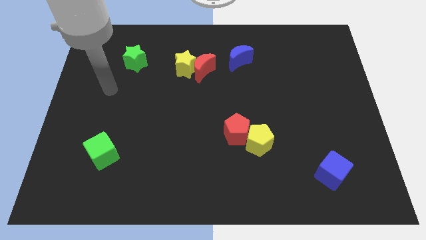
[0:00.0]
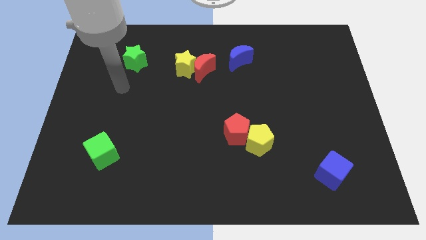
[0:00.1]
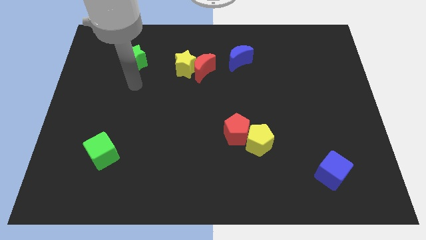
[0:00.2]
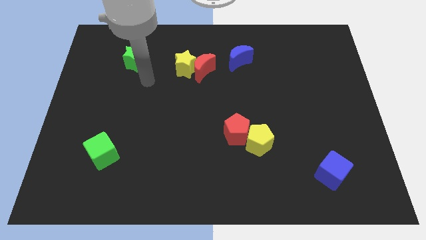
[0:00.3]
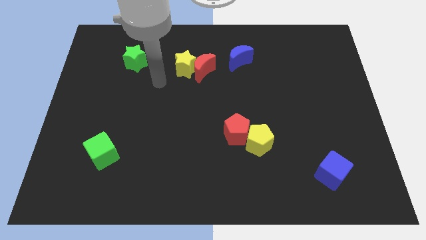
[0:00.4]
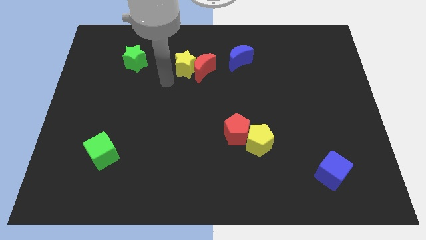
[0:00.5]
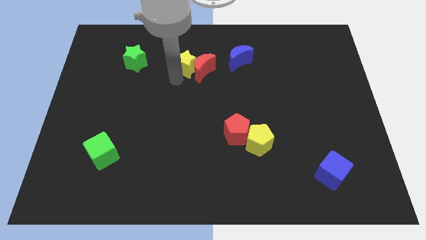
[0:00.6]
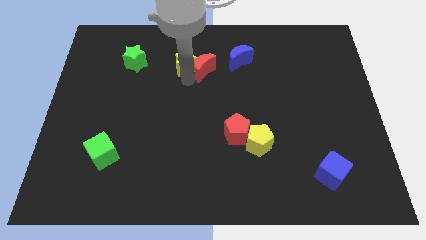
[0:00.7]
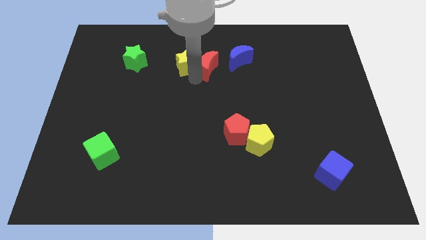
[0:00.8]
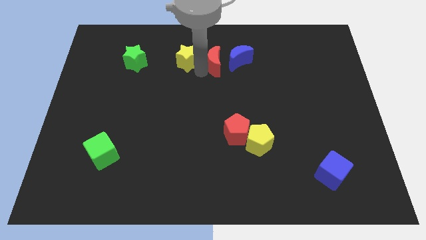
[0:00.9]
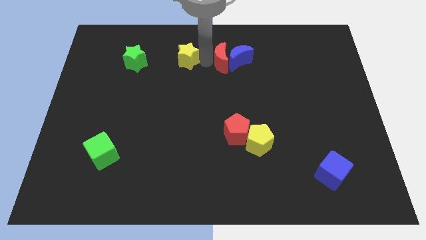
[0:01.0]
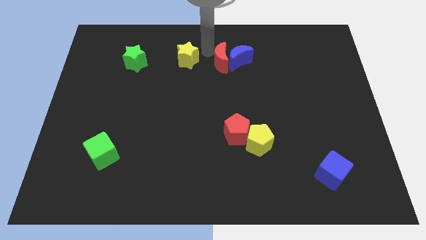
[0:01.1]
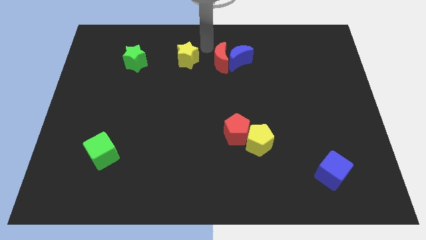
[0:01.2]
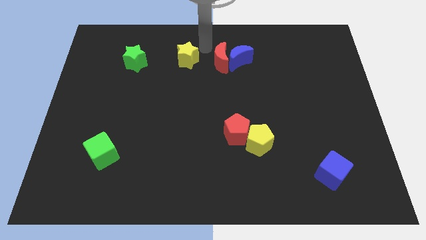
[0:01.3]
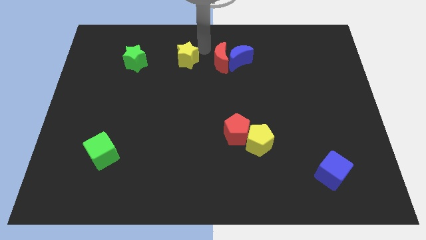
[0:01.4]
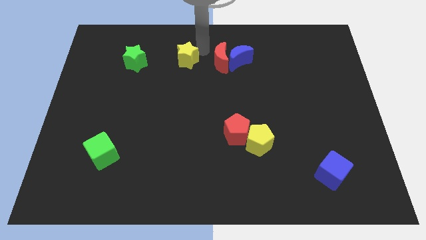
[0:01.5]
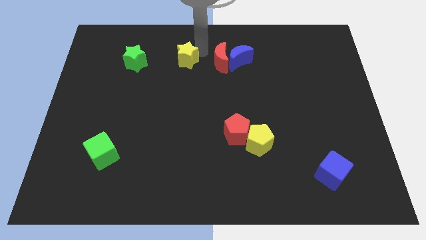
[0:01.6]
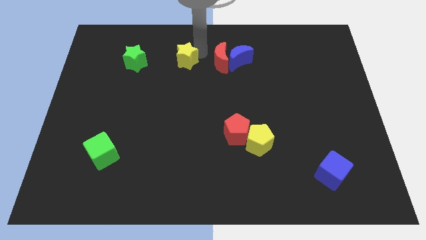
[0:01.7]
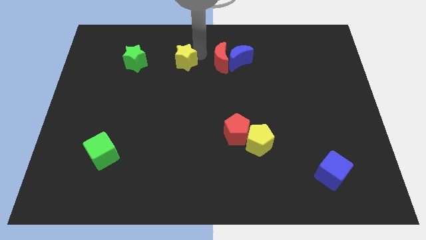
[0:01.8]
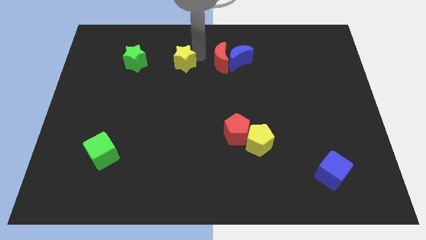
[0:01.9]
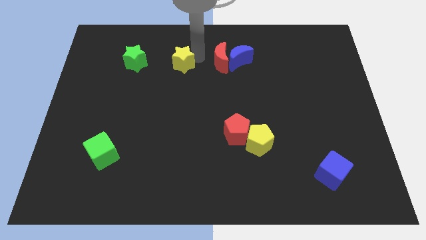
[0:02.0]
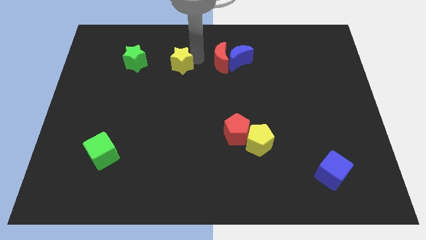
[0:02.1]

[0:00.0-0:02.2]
pull the yellow star apart from the red moon

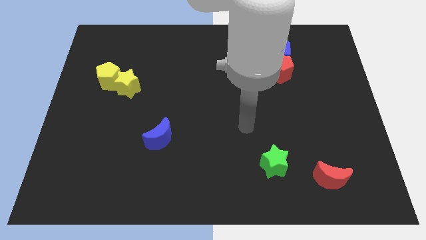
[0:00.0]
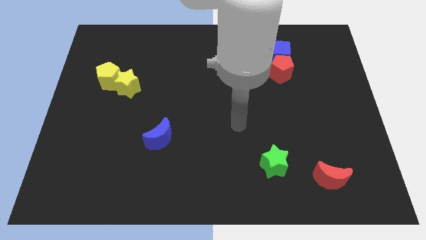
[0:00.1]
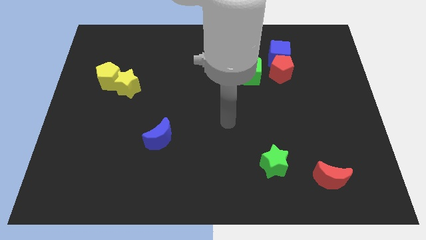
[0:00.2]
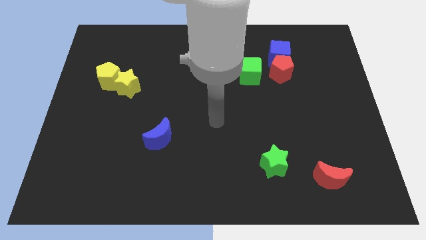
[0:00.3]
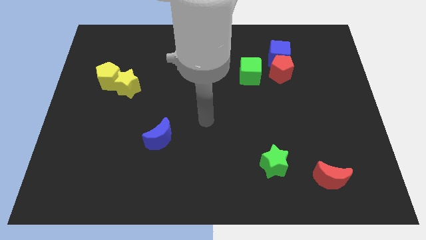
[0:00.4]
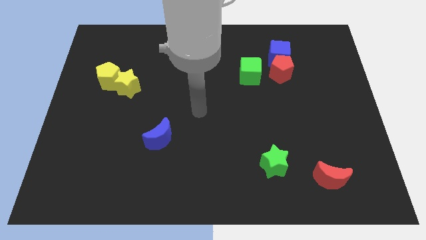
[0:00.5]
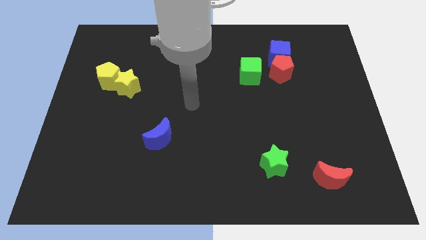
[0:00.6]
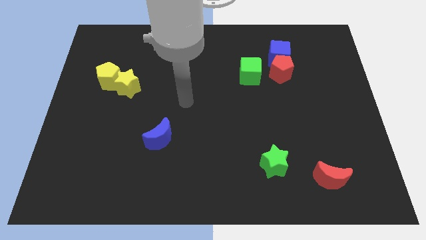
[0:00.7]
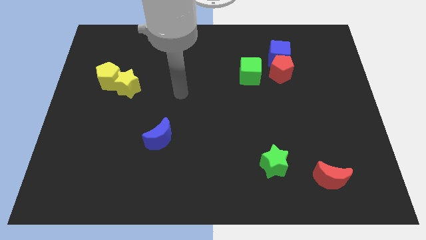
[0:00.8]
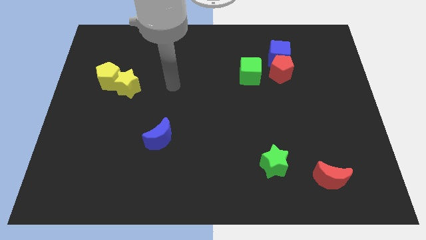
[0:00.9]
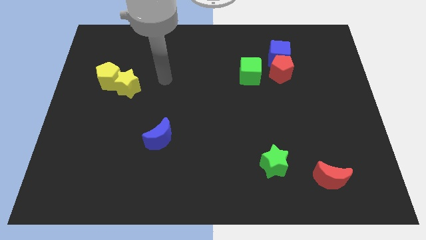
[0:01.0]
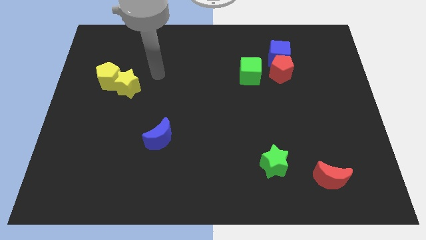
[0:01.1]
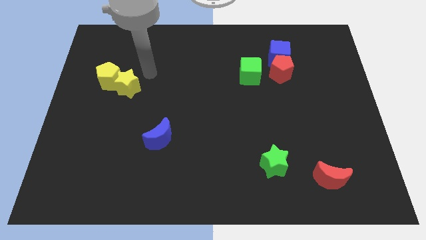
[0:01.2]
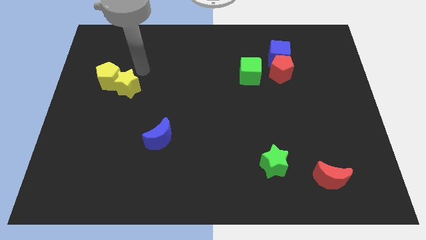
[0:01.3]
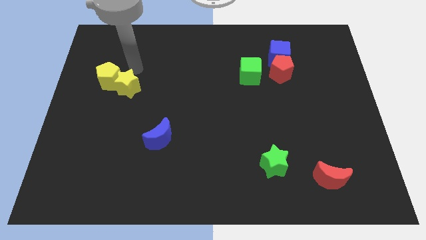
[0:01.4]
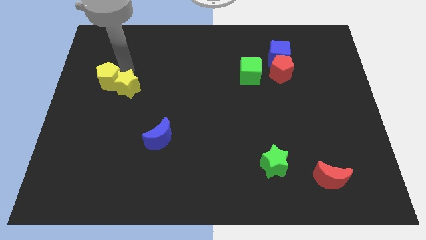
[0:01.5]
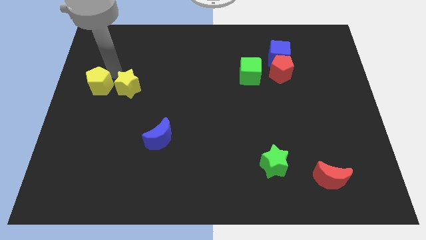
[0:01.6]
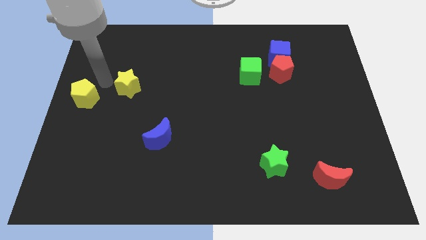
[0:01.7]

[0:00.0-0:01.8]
move the yellow star away from the yellow pentagon

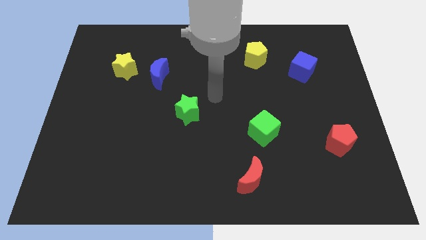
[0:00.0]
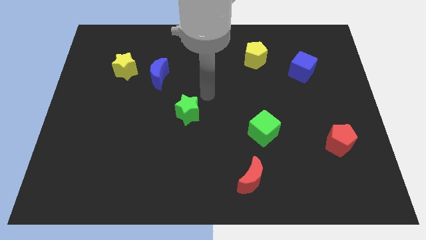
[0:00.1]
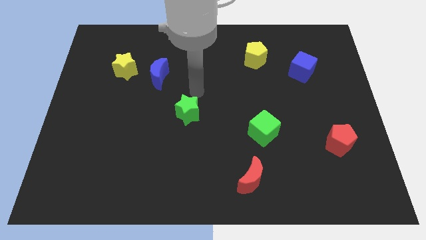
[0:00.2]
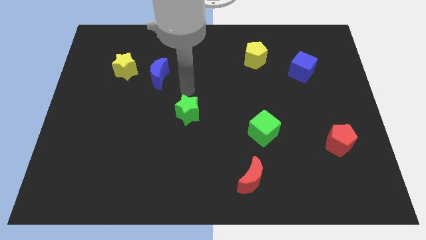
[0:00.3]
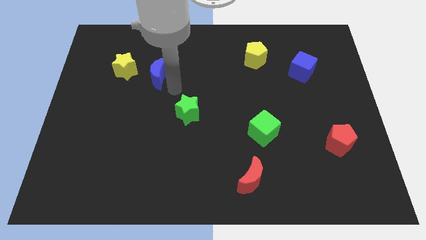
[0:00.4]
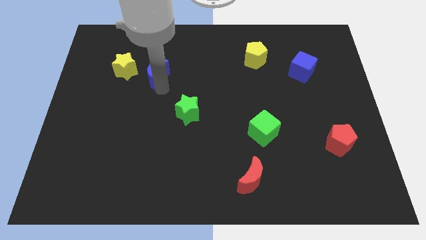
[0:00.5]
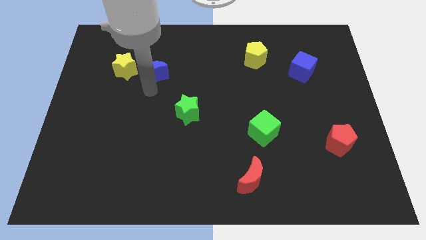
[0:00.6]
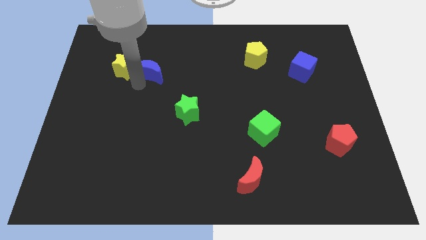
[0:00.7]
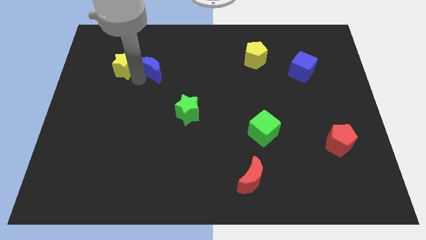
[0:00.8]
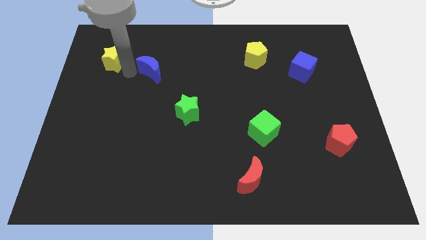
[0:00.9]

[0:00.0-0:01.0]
separate the blue moon from the yellow star

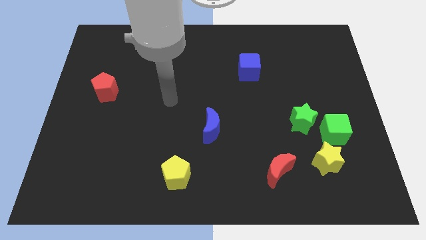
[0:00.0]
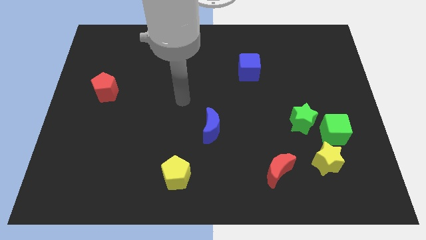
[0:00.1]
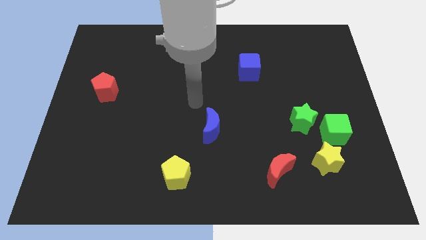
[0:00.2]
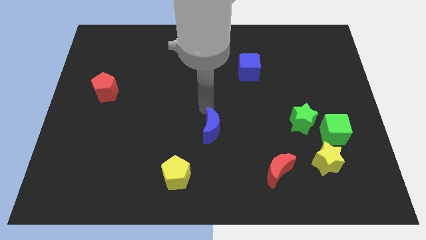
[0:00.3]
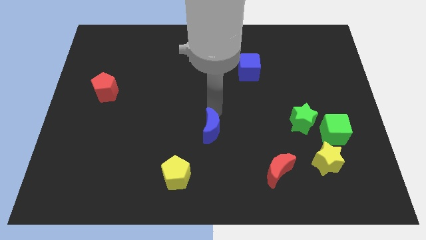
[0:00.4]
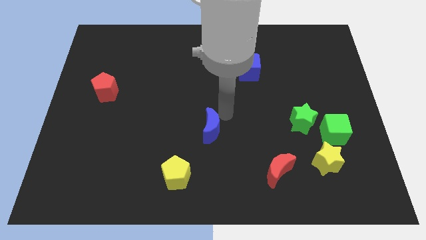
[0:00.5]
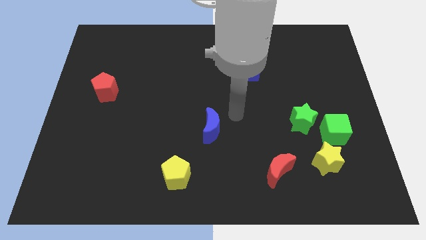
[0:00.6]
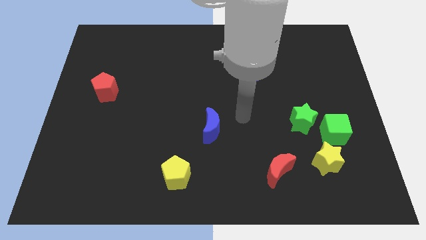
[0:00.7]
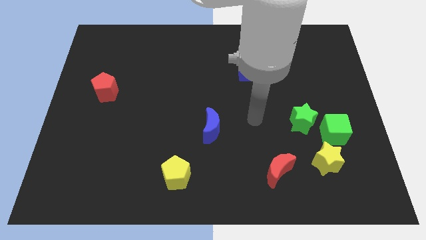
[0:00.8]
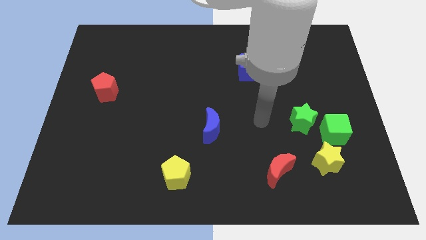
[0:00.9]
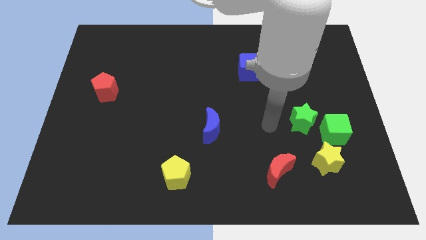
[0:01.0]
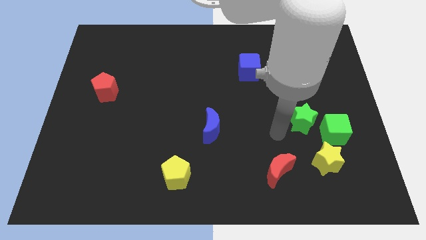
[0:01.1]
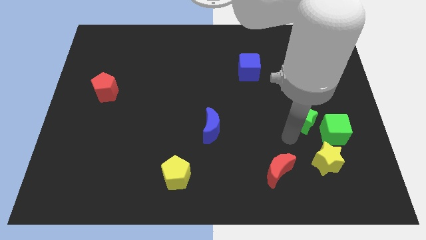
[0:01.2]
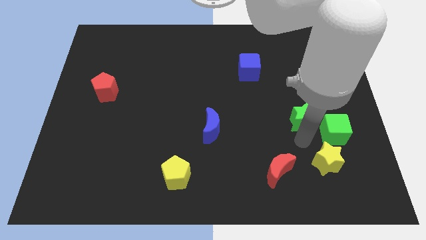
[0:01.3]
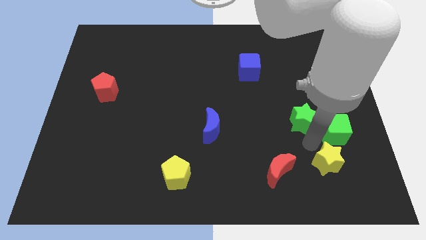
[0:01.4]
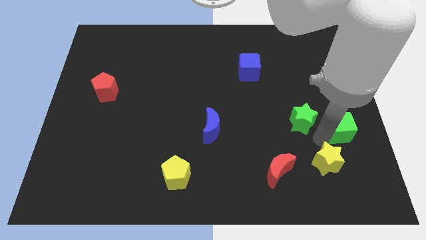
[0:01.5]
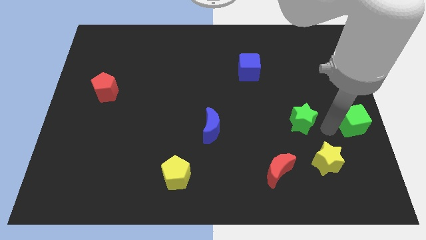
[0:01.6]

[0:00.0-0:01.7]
move the green star away from the green cube

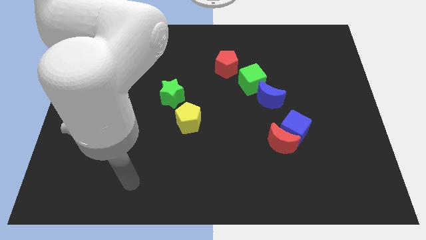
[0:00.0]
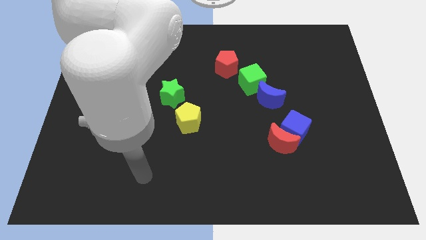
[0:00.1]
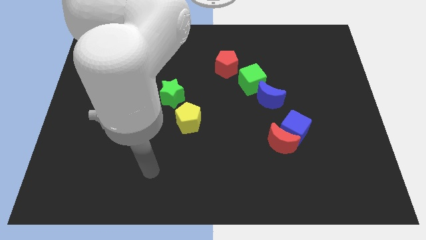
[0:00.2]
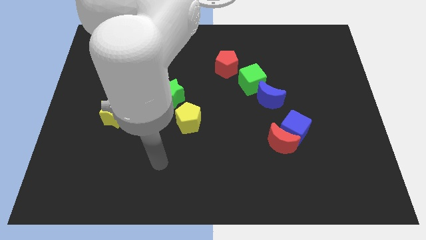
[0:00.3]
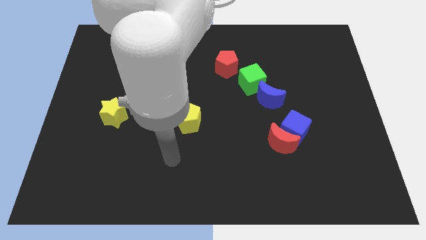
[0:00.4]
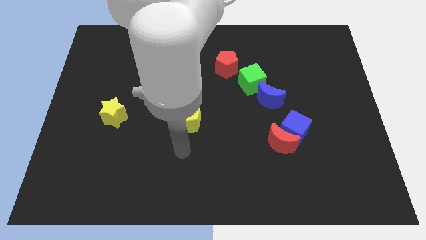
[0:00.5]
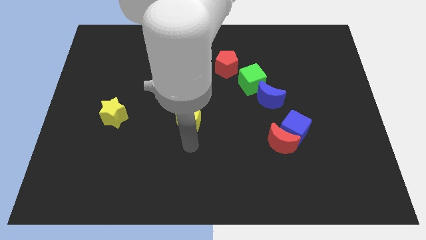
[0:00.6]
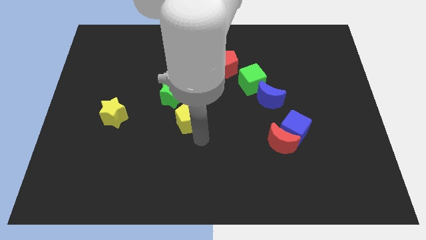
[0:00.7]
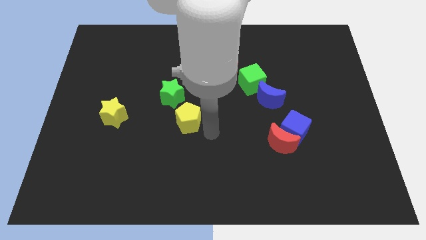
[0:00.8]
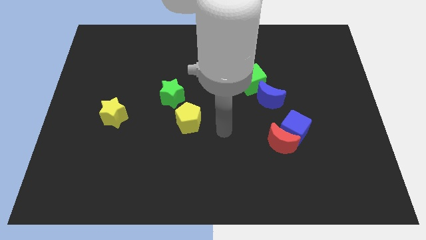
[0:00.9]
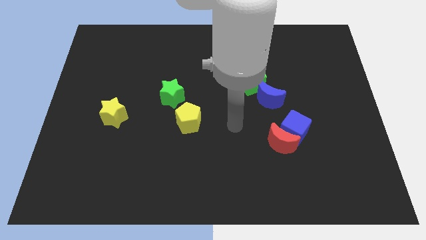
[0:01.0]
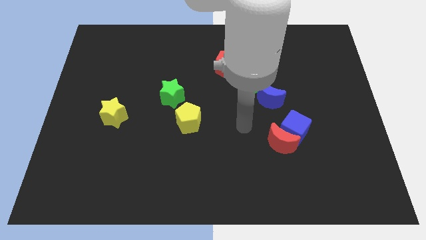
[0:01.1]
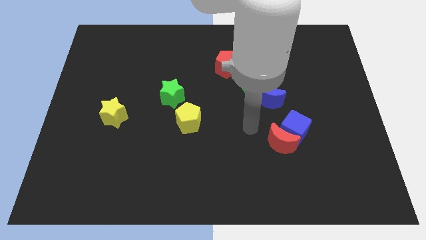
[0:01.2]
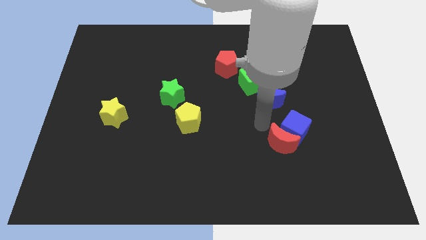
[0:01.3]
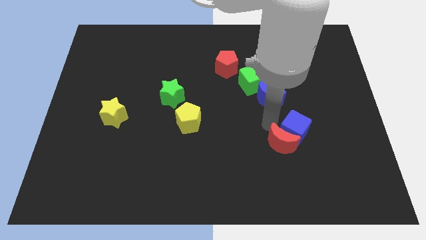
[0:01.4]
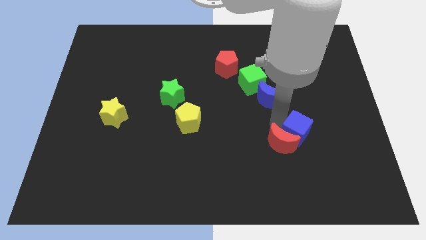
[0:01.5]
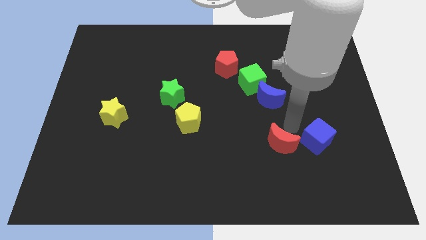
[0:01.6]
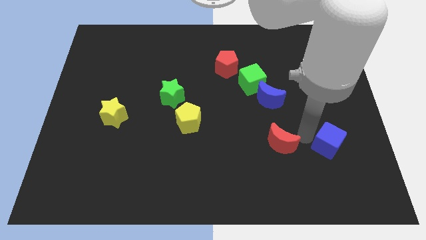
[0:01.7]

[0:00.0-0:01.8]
move the red moon away from the blue cube

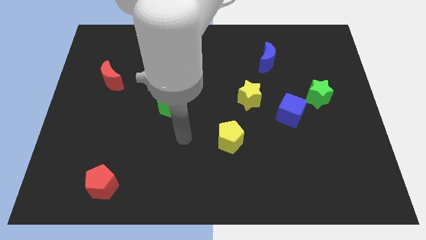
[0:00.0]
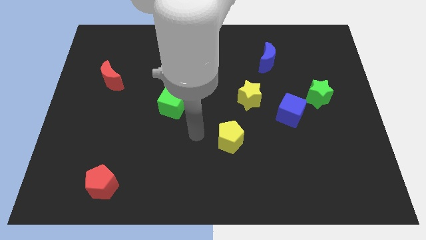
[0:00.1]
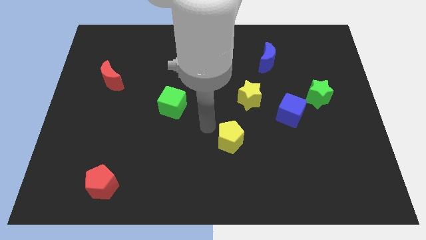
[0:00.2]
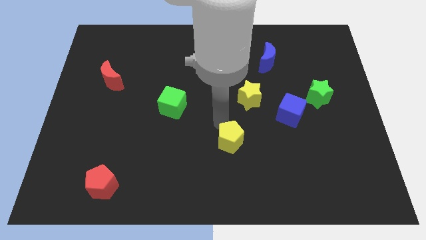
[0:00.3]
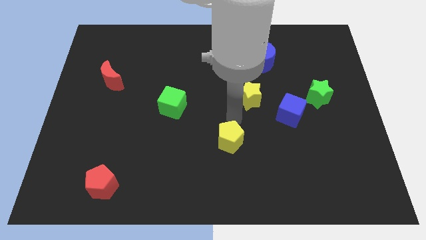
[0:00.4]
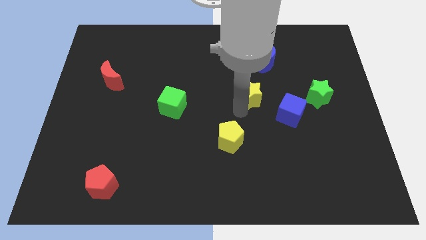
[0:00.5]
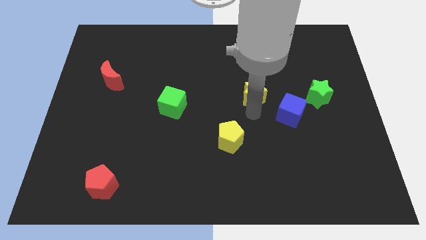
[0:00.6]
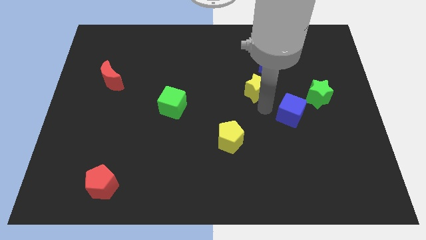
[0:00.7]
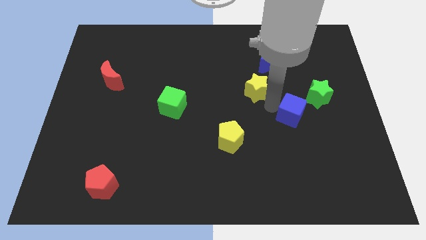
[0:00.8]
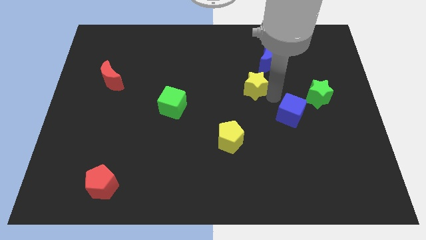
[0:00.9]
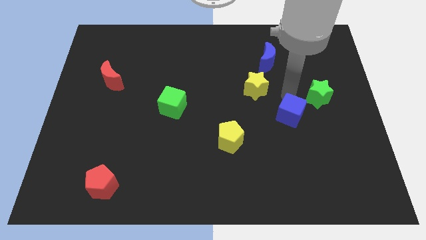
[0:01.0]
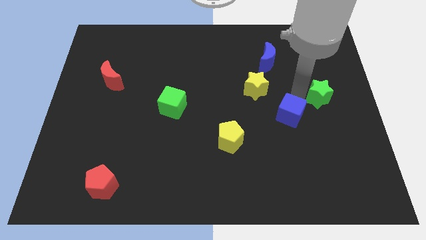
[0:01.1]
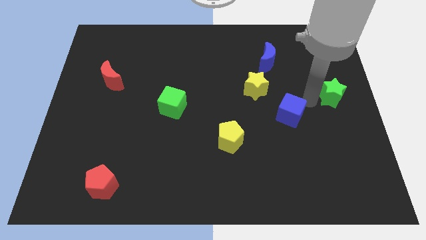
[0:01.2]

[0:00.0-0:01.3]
separate the blue cube from the green star
